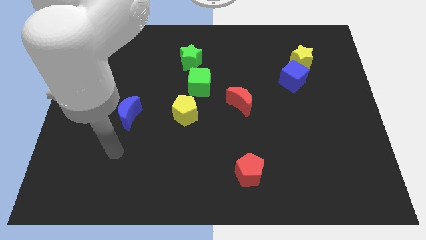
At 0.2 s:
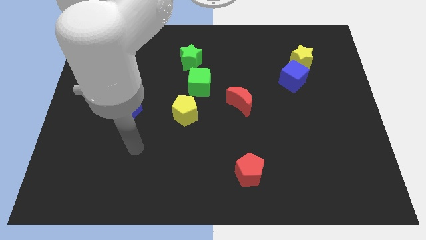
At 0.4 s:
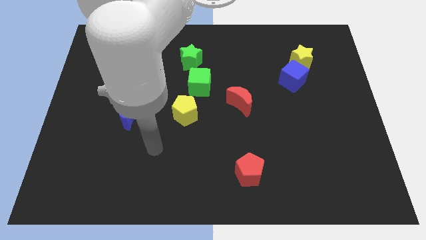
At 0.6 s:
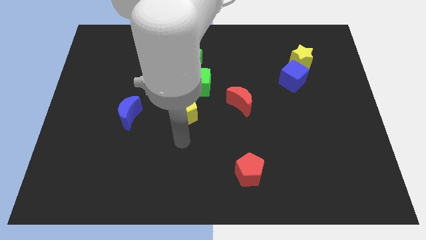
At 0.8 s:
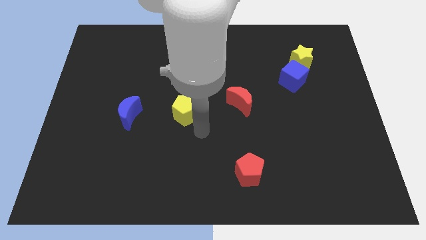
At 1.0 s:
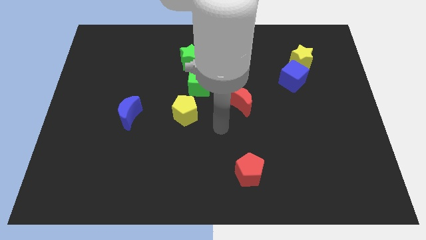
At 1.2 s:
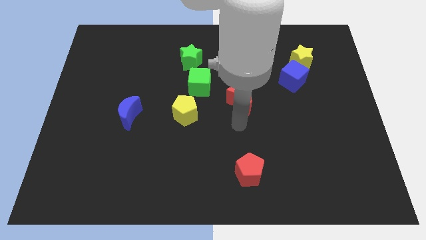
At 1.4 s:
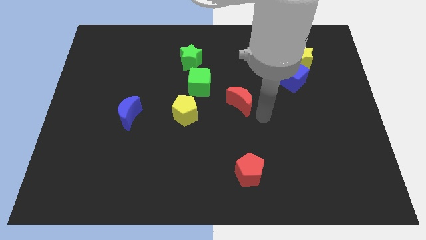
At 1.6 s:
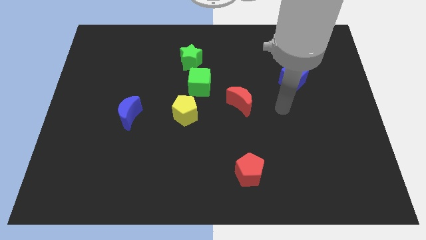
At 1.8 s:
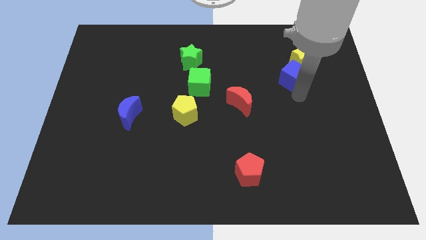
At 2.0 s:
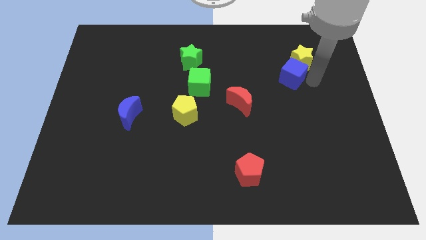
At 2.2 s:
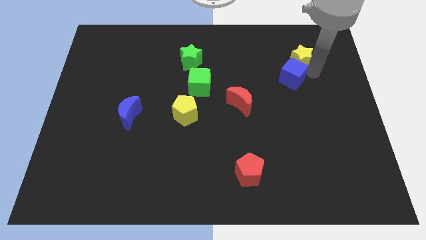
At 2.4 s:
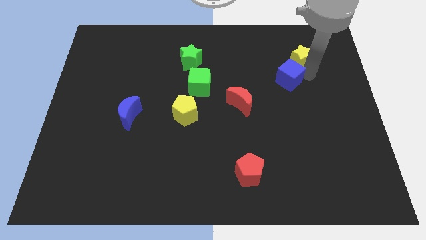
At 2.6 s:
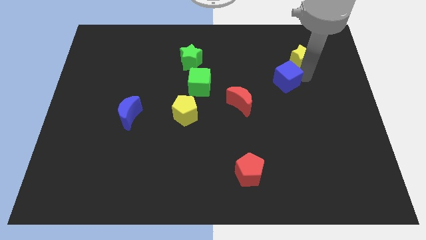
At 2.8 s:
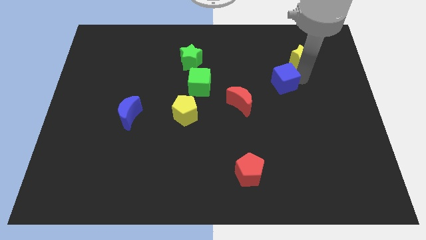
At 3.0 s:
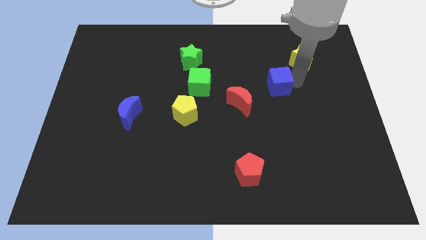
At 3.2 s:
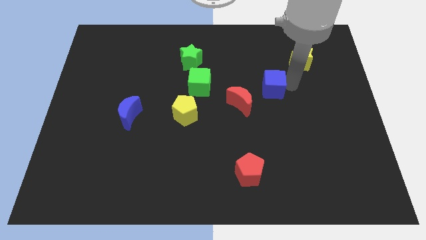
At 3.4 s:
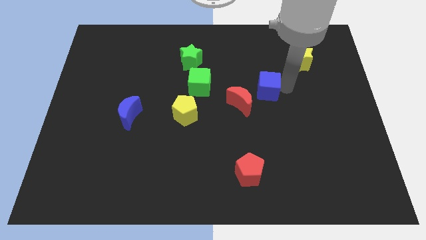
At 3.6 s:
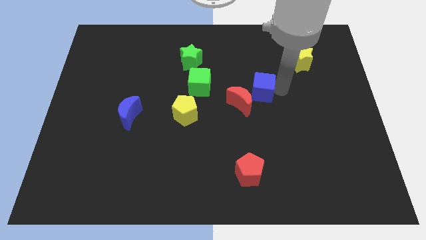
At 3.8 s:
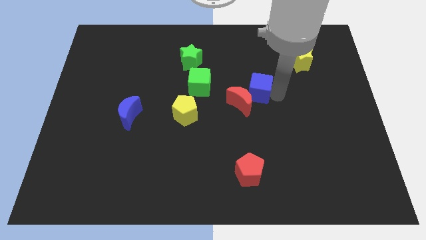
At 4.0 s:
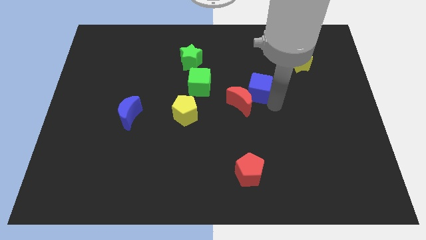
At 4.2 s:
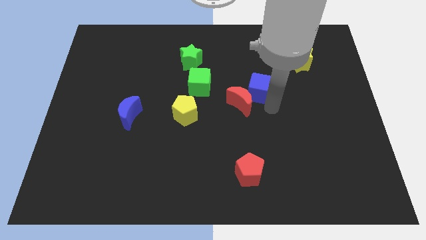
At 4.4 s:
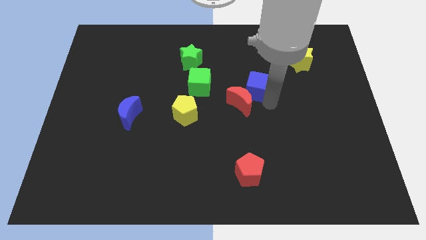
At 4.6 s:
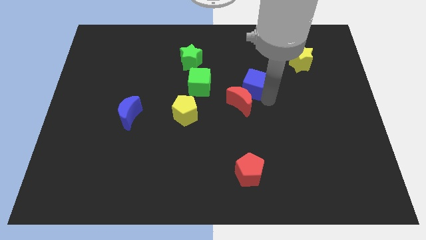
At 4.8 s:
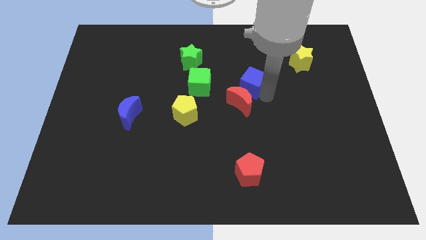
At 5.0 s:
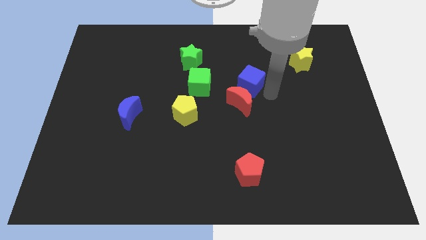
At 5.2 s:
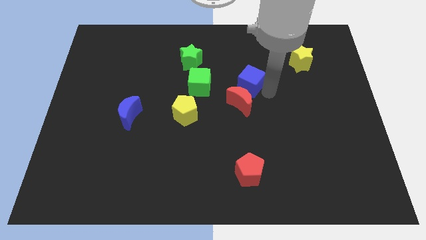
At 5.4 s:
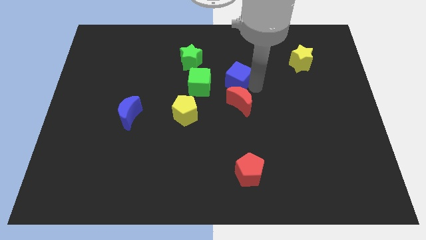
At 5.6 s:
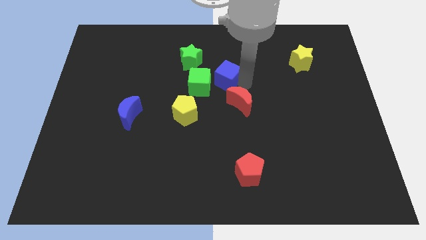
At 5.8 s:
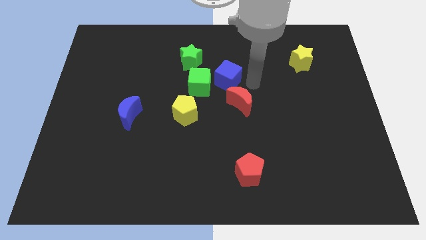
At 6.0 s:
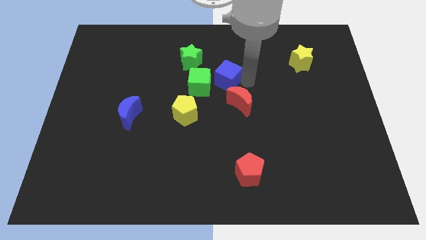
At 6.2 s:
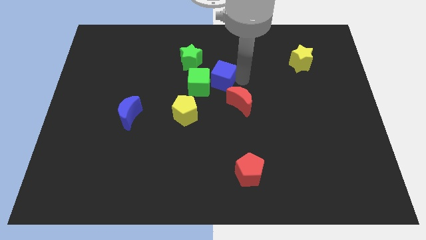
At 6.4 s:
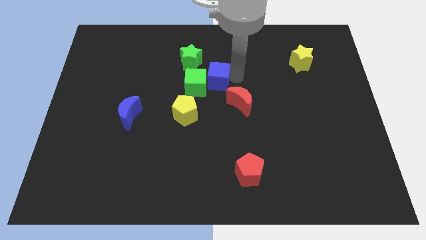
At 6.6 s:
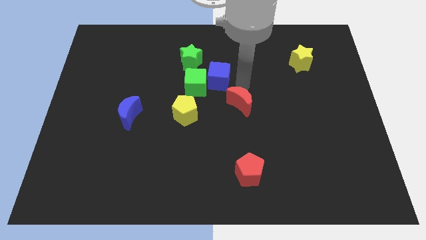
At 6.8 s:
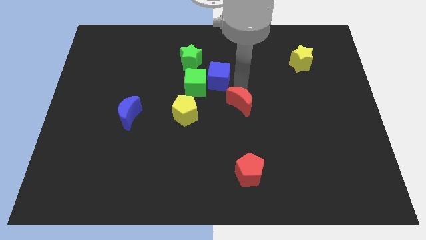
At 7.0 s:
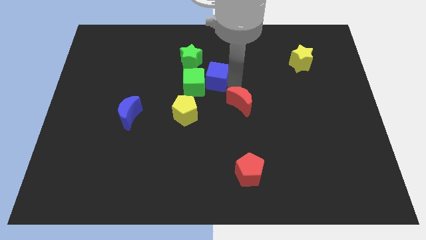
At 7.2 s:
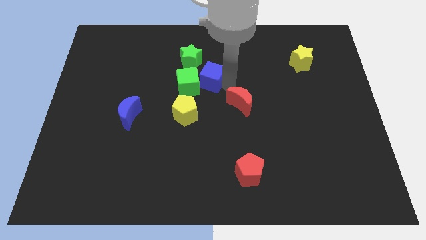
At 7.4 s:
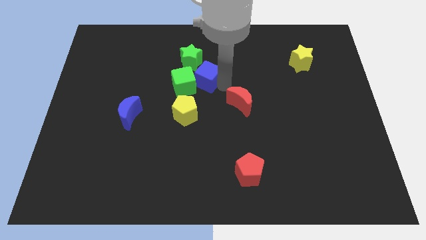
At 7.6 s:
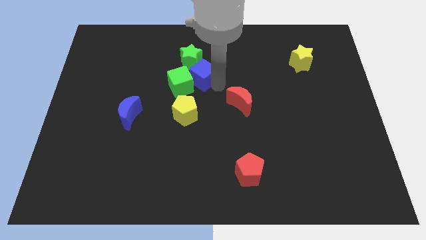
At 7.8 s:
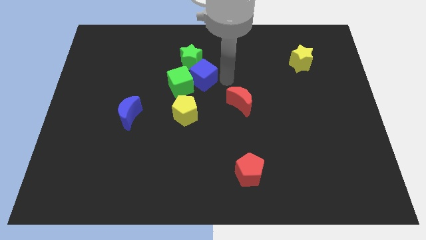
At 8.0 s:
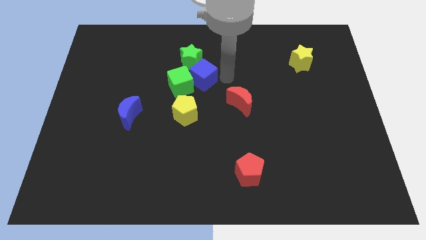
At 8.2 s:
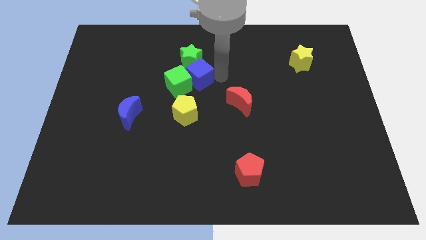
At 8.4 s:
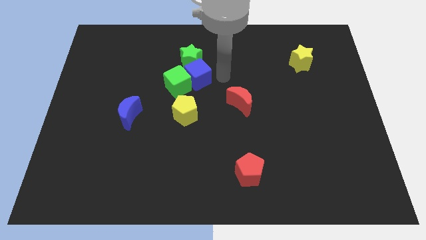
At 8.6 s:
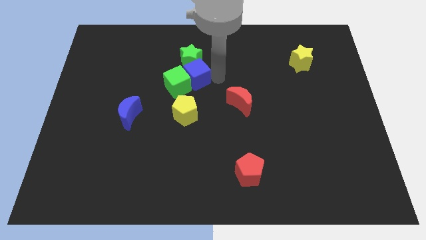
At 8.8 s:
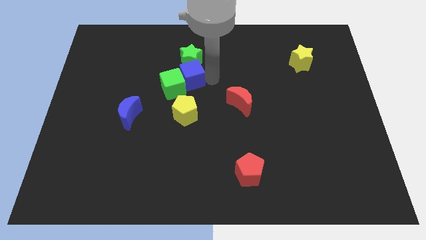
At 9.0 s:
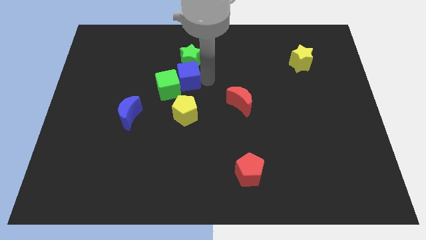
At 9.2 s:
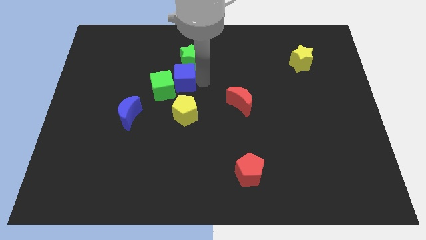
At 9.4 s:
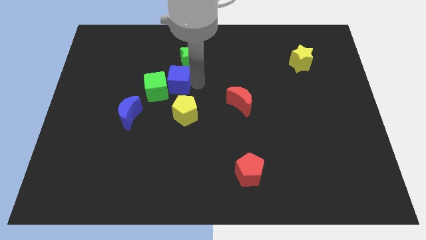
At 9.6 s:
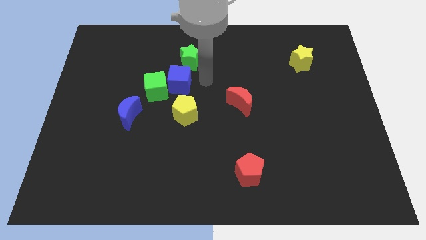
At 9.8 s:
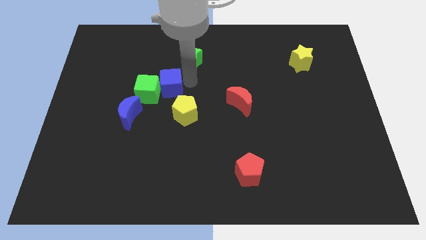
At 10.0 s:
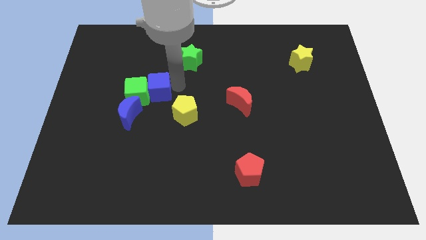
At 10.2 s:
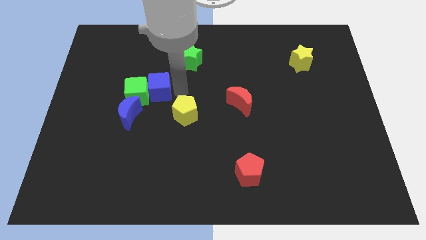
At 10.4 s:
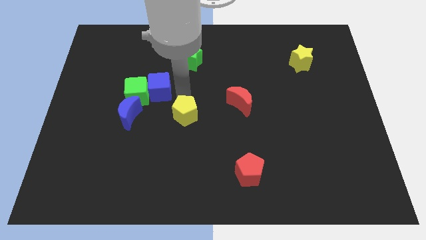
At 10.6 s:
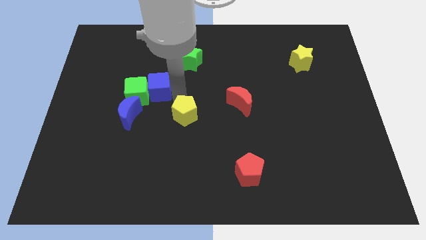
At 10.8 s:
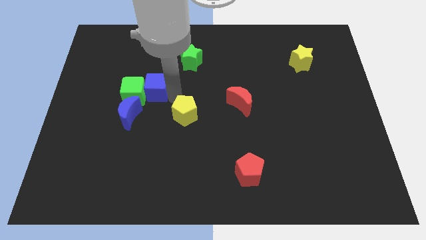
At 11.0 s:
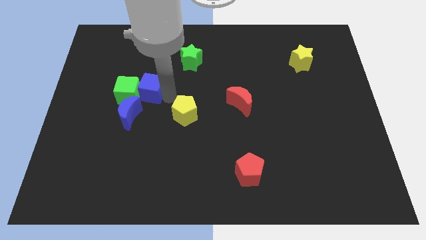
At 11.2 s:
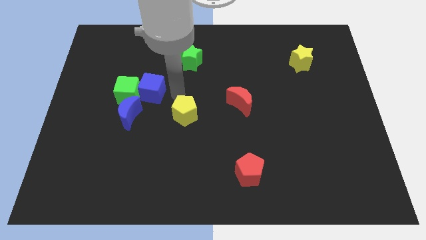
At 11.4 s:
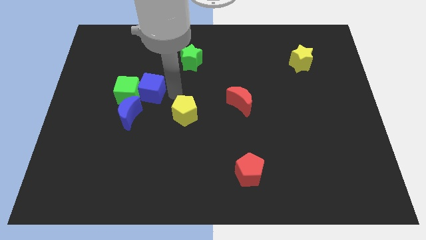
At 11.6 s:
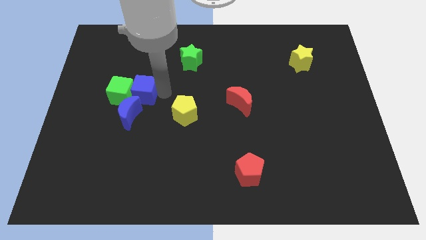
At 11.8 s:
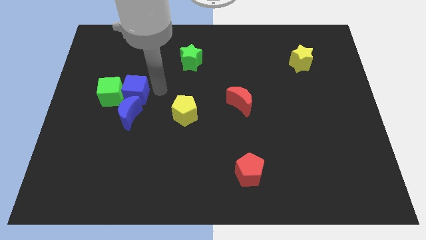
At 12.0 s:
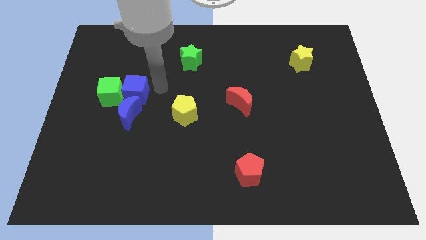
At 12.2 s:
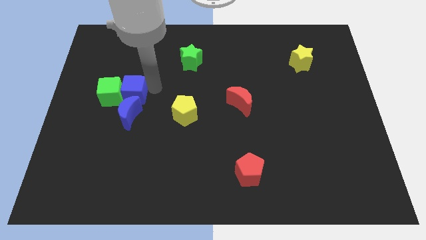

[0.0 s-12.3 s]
move the blue cube diagonally up and to the left of the blue moon

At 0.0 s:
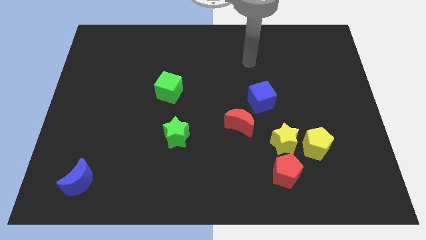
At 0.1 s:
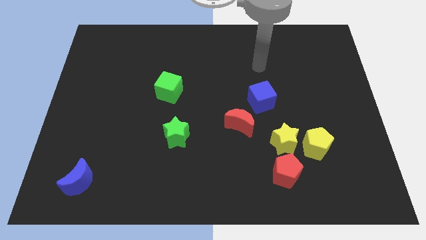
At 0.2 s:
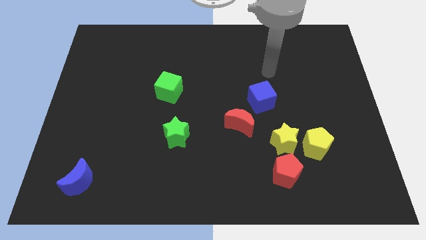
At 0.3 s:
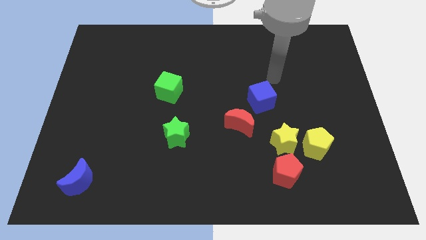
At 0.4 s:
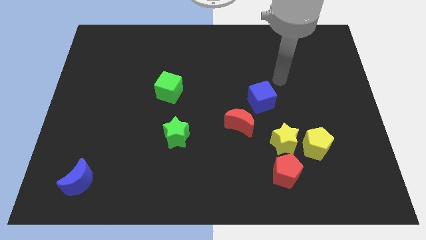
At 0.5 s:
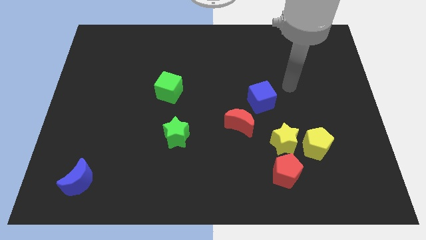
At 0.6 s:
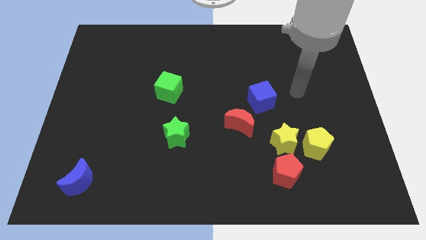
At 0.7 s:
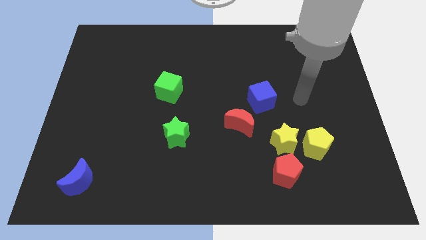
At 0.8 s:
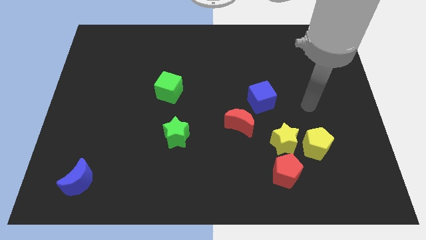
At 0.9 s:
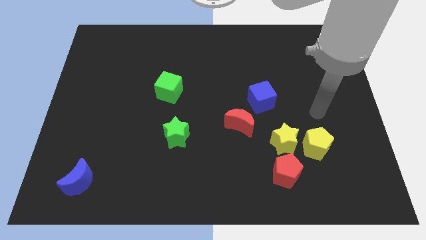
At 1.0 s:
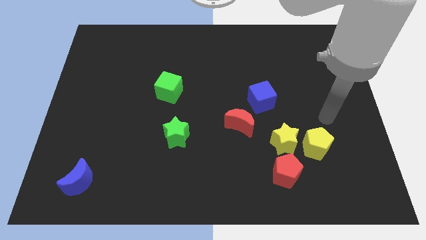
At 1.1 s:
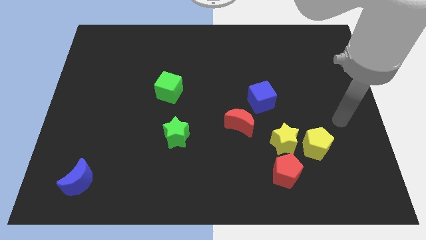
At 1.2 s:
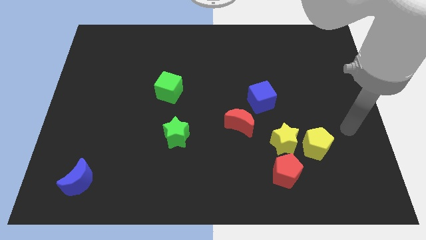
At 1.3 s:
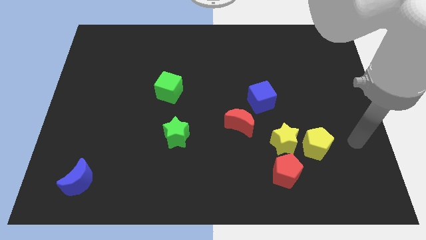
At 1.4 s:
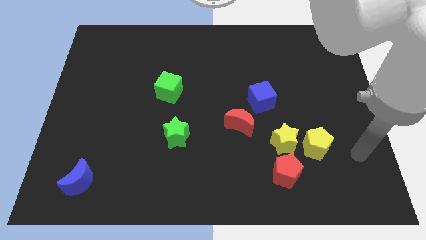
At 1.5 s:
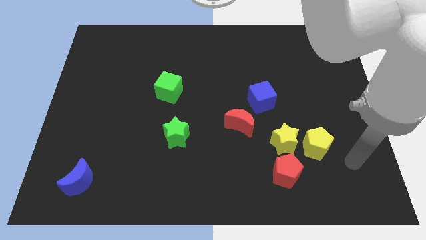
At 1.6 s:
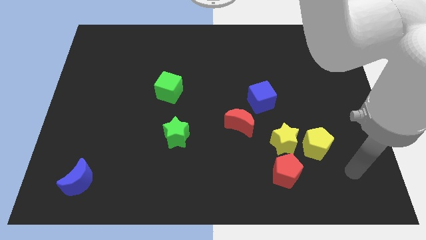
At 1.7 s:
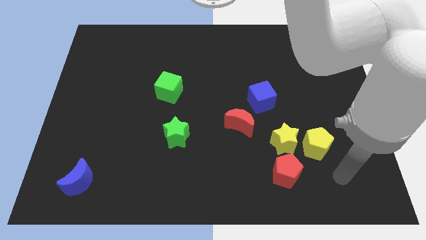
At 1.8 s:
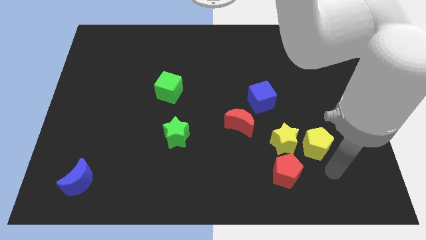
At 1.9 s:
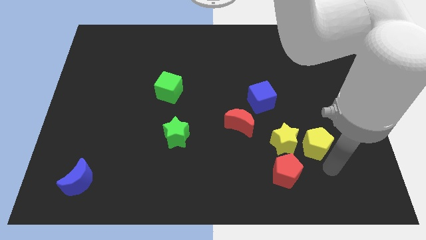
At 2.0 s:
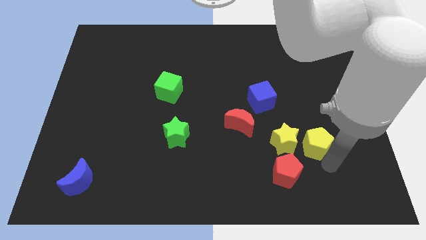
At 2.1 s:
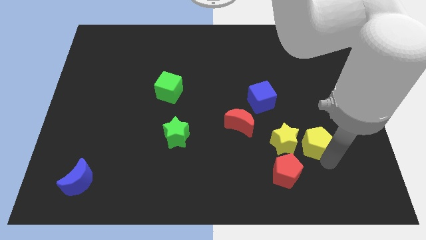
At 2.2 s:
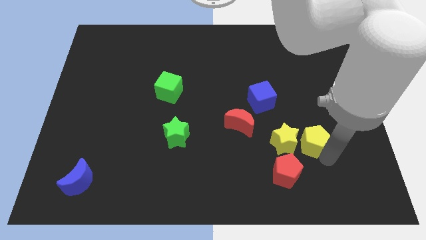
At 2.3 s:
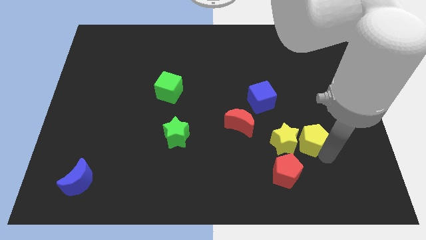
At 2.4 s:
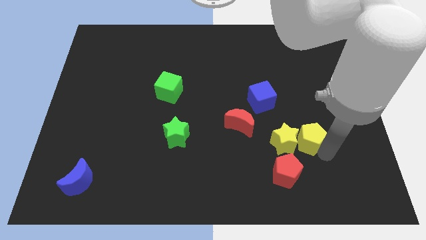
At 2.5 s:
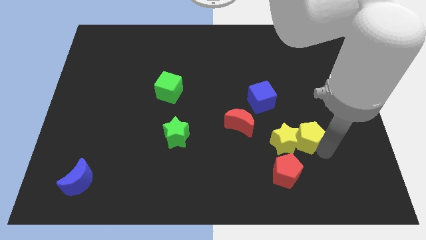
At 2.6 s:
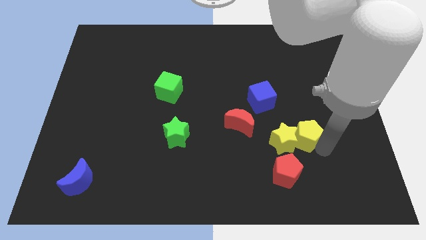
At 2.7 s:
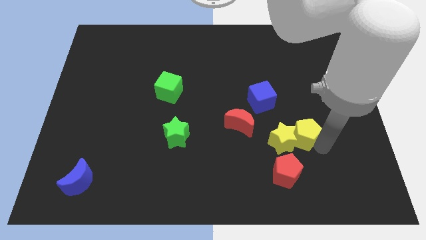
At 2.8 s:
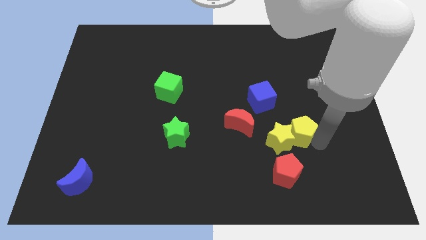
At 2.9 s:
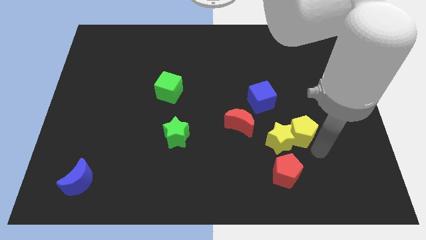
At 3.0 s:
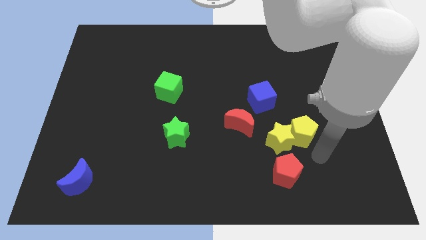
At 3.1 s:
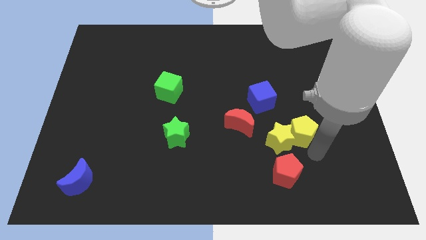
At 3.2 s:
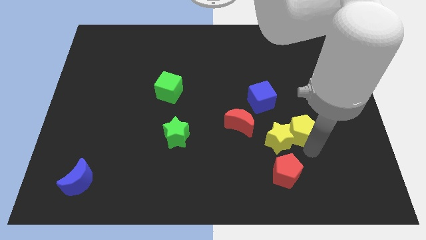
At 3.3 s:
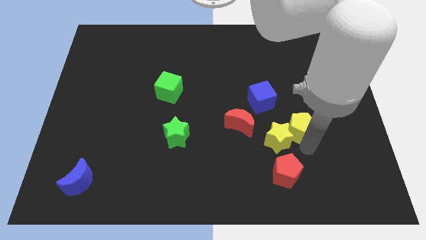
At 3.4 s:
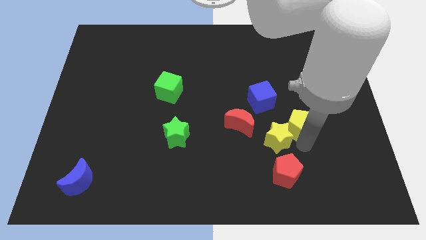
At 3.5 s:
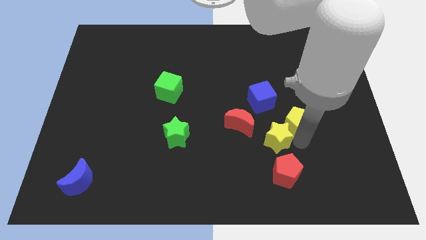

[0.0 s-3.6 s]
move the yellow pentagon to the top of the yellow star
